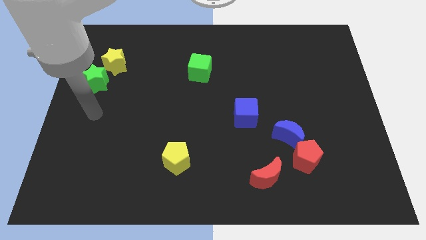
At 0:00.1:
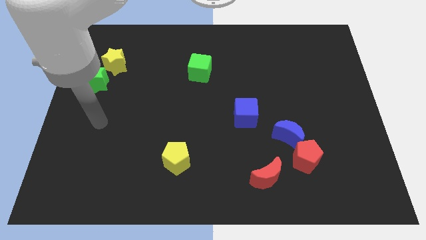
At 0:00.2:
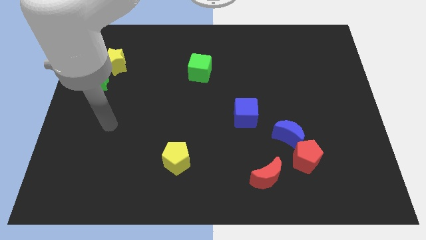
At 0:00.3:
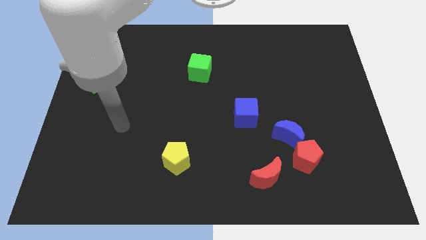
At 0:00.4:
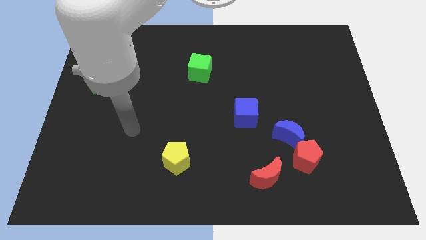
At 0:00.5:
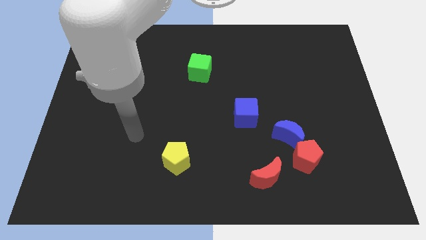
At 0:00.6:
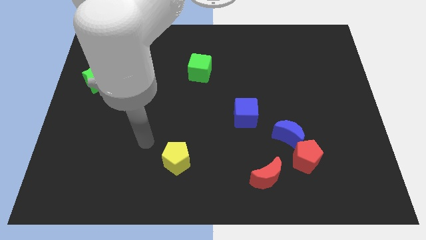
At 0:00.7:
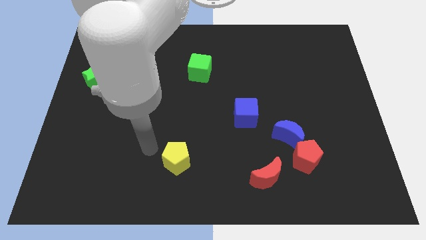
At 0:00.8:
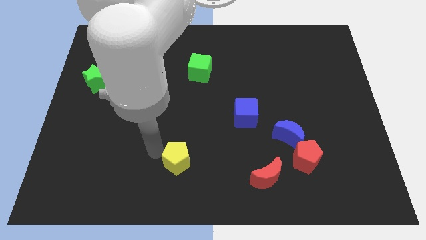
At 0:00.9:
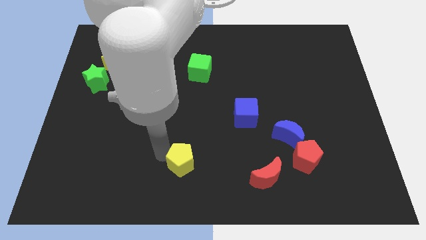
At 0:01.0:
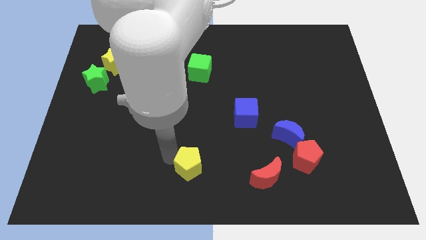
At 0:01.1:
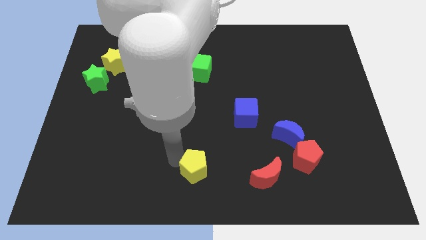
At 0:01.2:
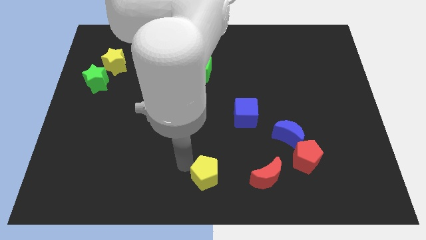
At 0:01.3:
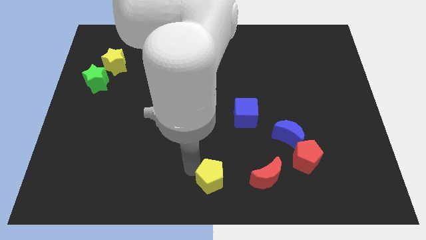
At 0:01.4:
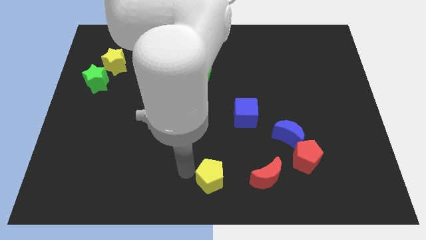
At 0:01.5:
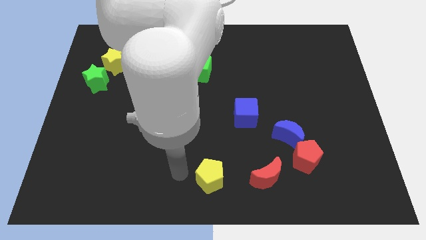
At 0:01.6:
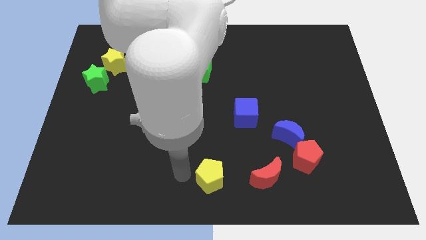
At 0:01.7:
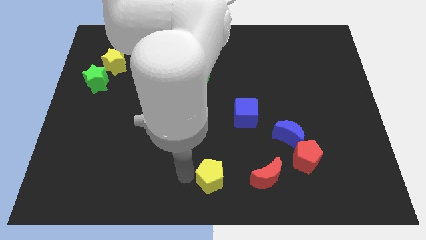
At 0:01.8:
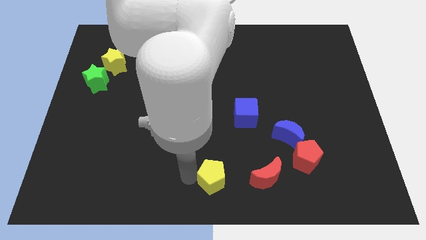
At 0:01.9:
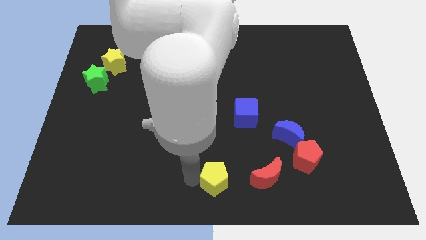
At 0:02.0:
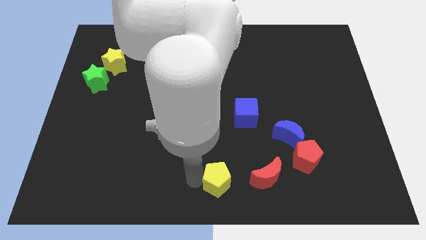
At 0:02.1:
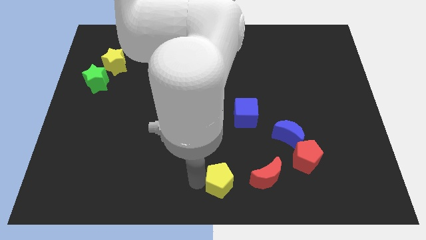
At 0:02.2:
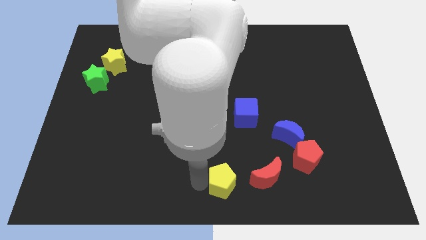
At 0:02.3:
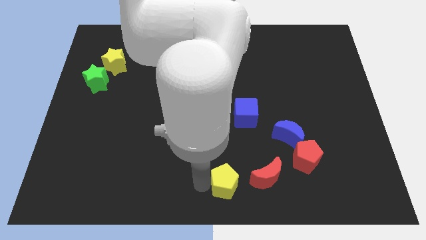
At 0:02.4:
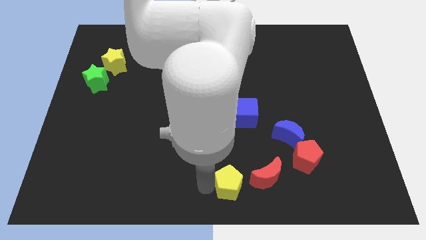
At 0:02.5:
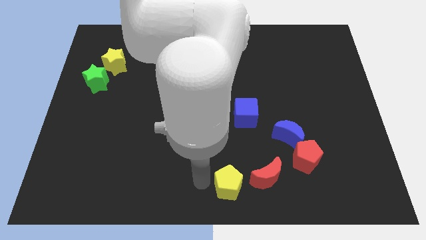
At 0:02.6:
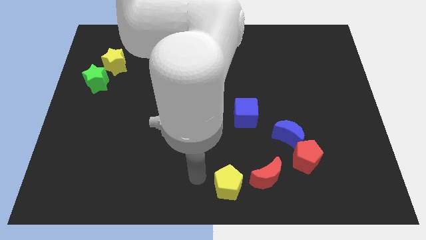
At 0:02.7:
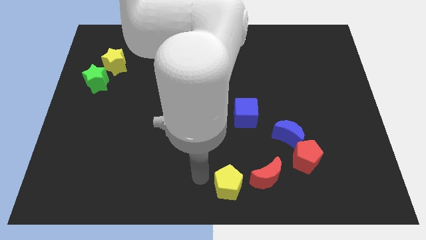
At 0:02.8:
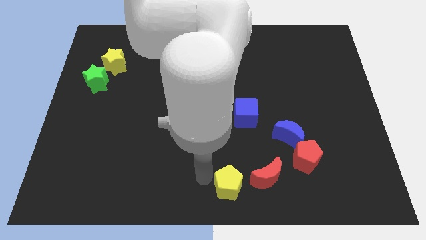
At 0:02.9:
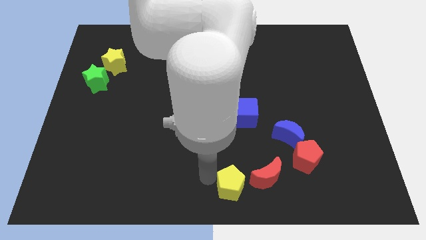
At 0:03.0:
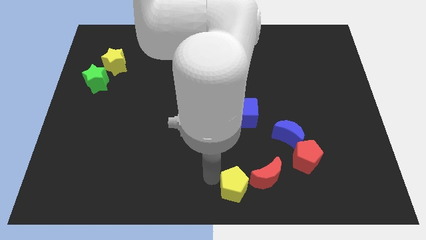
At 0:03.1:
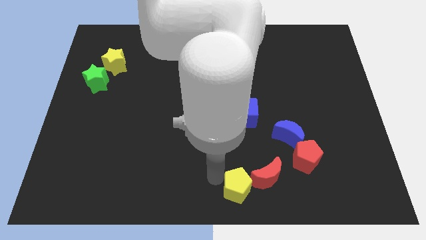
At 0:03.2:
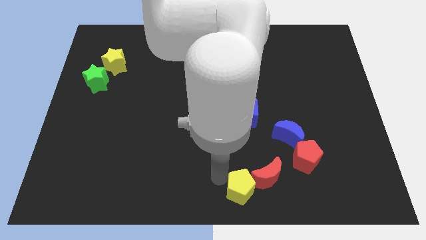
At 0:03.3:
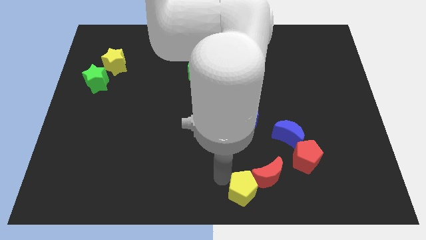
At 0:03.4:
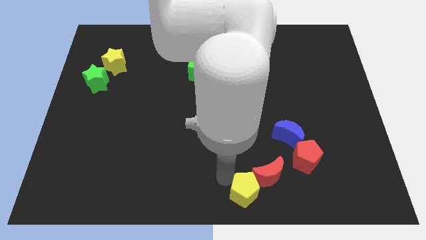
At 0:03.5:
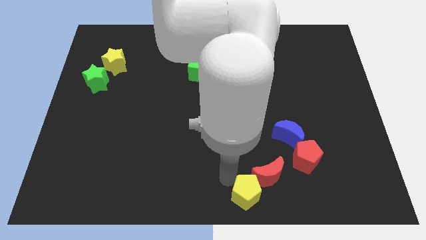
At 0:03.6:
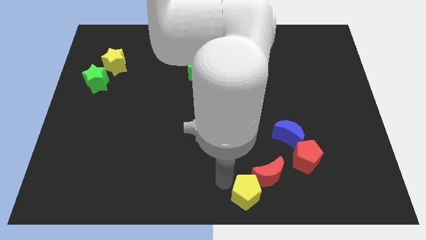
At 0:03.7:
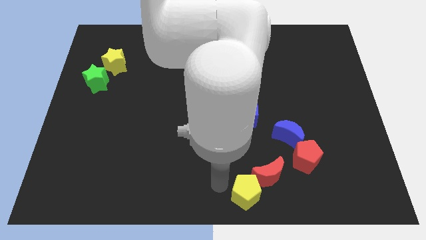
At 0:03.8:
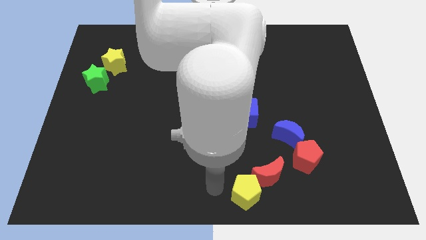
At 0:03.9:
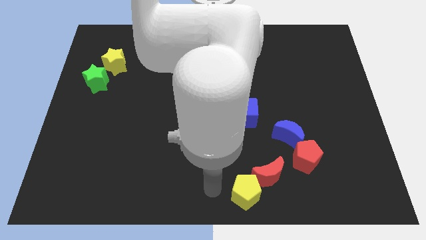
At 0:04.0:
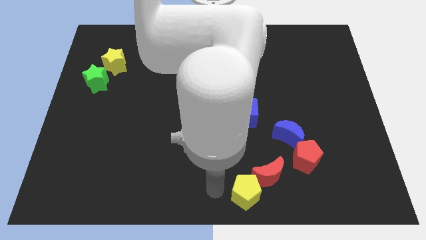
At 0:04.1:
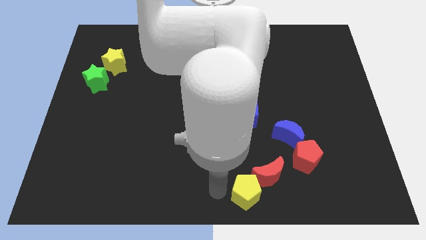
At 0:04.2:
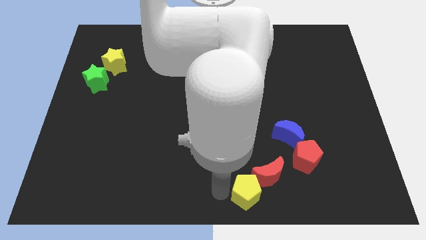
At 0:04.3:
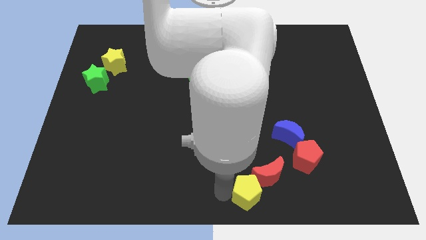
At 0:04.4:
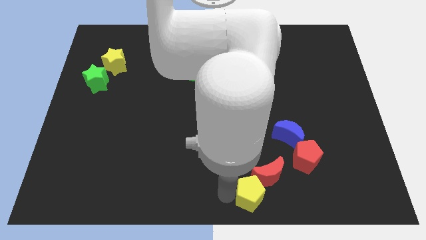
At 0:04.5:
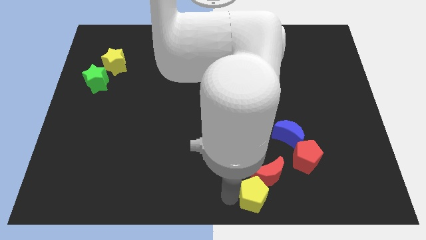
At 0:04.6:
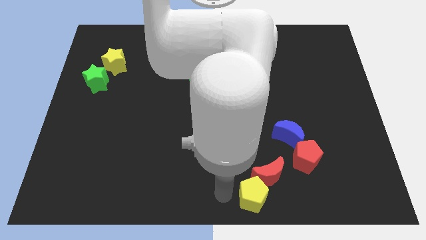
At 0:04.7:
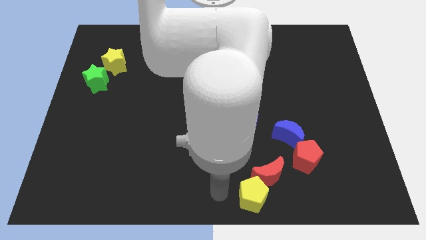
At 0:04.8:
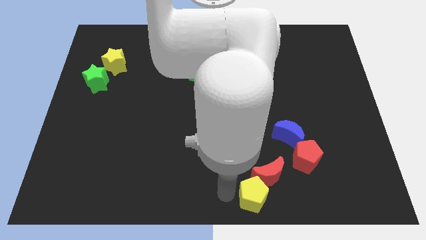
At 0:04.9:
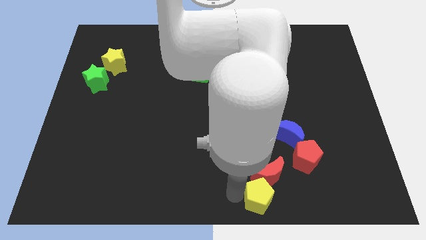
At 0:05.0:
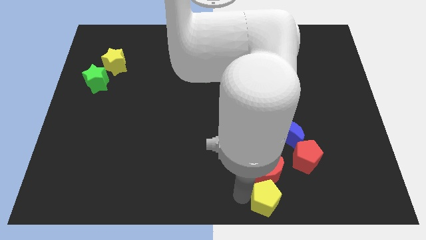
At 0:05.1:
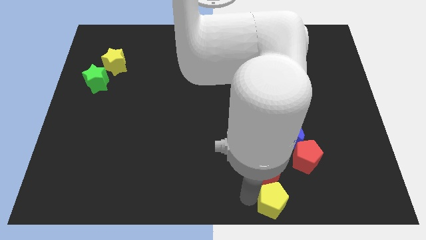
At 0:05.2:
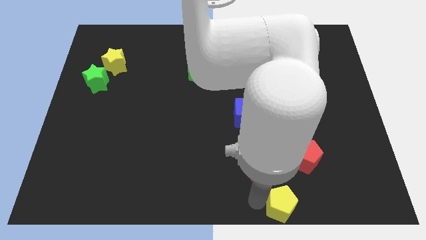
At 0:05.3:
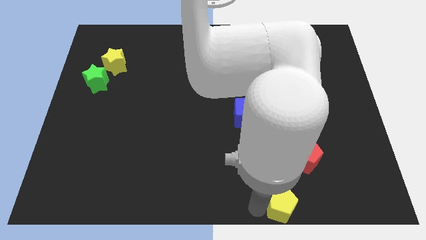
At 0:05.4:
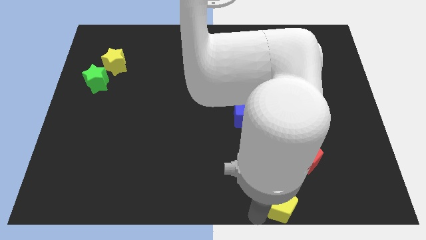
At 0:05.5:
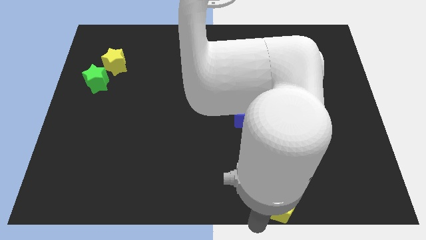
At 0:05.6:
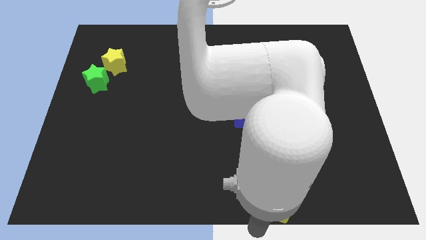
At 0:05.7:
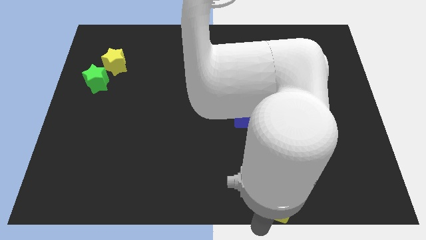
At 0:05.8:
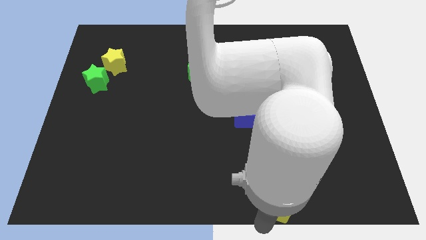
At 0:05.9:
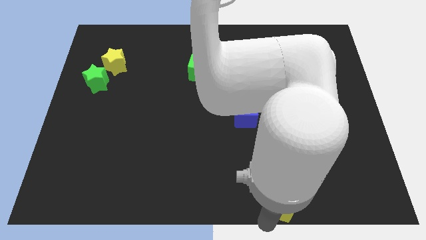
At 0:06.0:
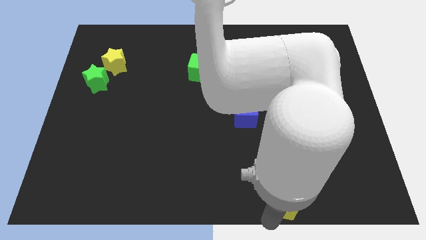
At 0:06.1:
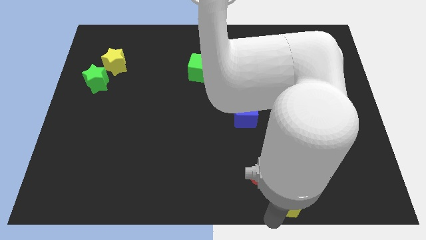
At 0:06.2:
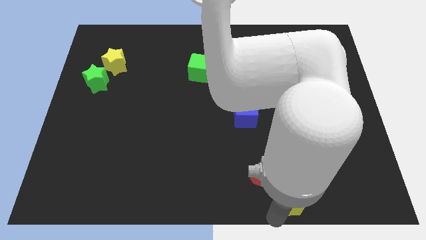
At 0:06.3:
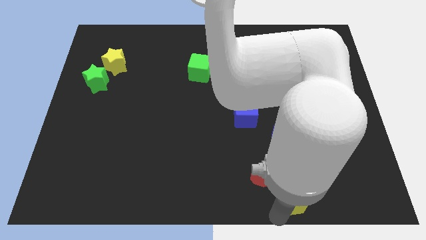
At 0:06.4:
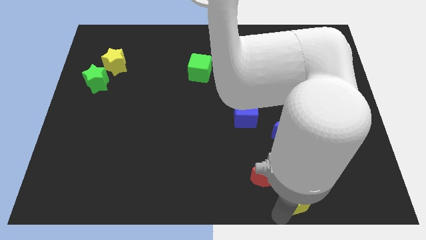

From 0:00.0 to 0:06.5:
move the yellow pentagon right

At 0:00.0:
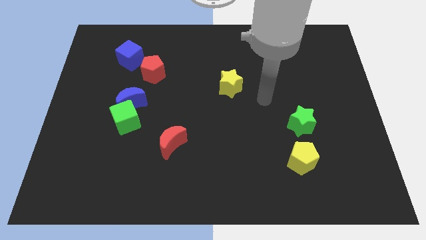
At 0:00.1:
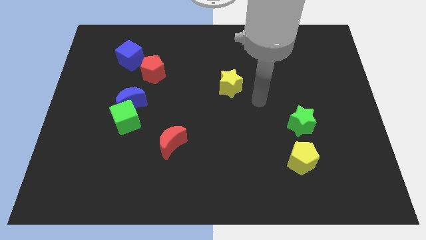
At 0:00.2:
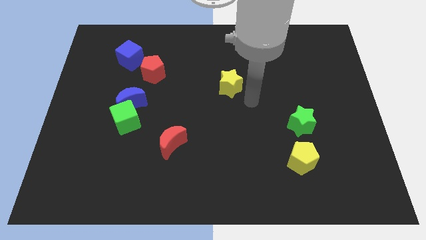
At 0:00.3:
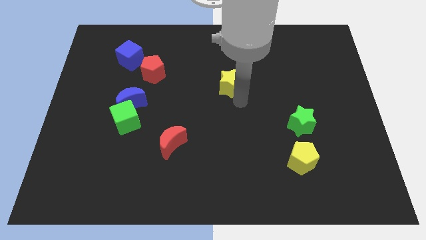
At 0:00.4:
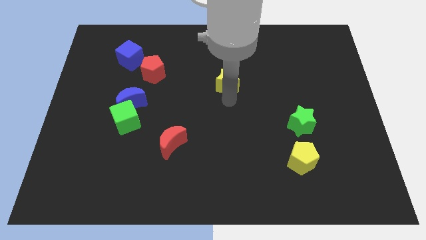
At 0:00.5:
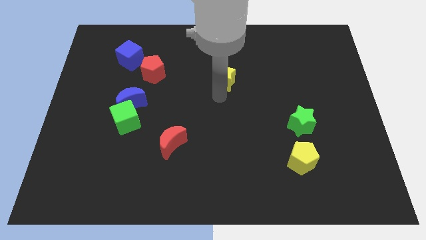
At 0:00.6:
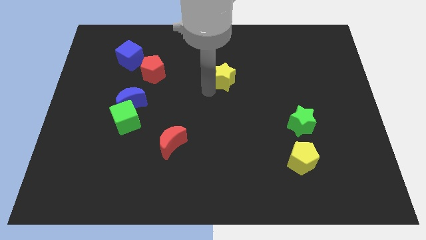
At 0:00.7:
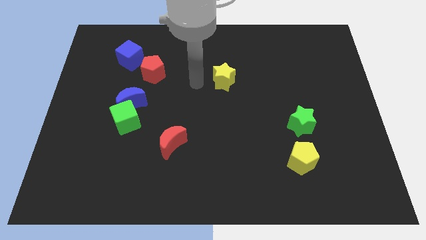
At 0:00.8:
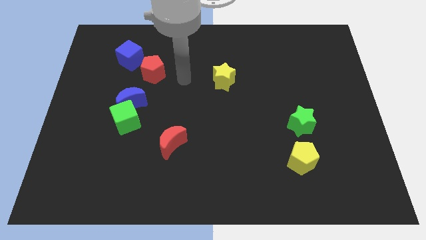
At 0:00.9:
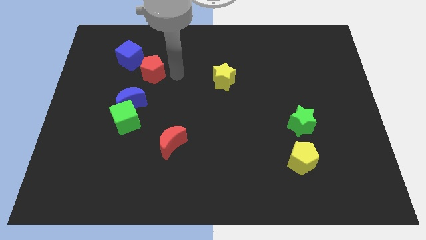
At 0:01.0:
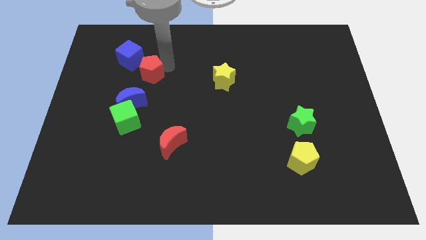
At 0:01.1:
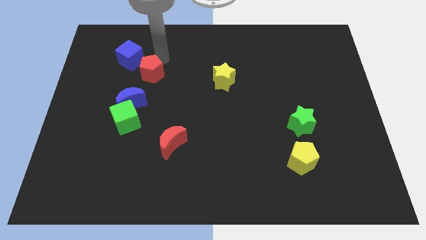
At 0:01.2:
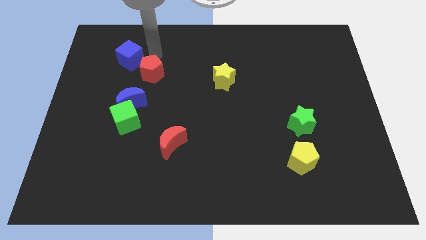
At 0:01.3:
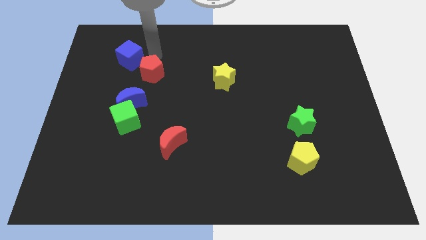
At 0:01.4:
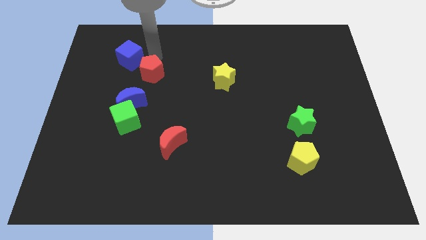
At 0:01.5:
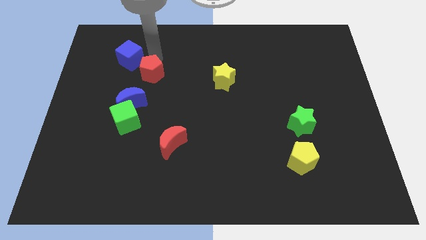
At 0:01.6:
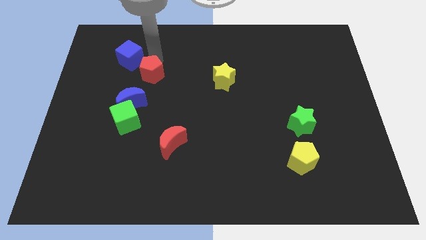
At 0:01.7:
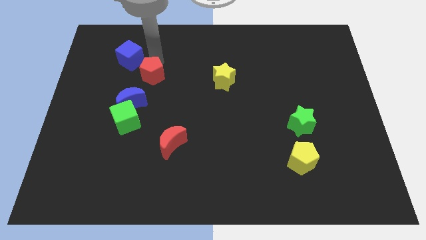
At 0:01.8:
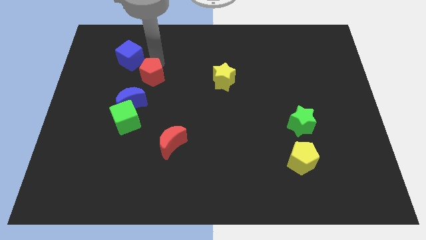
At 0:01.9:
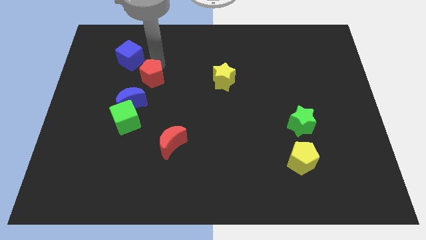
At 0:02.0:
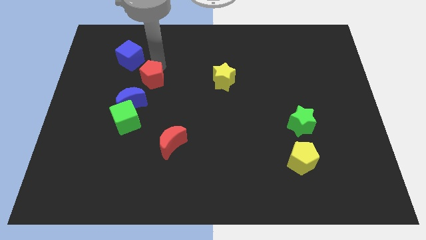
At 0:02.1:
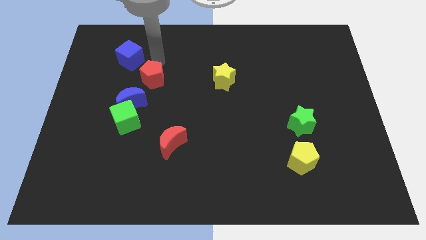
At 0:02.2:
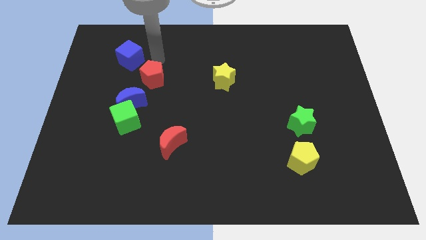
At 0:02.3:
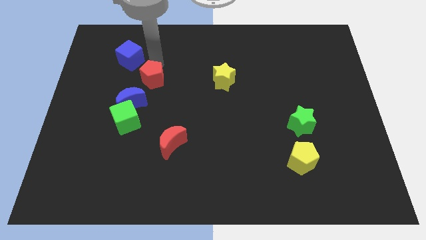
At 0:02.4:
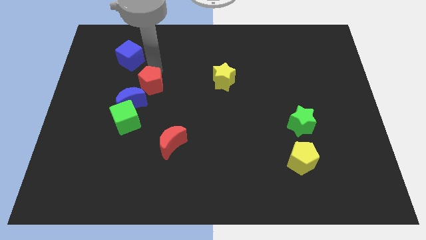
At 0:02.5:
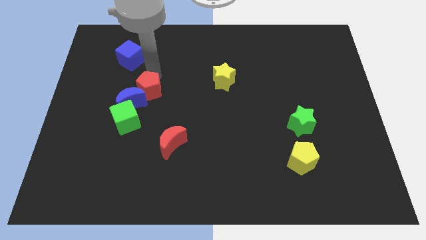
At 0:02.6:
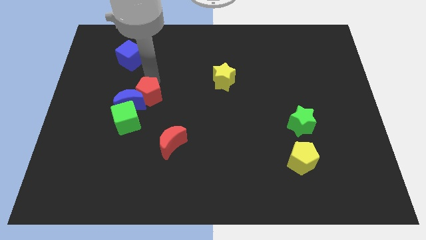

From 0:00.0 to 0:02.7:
slide the red pentagon a little bit downwards
